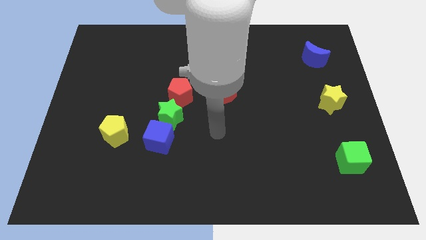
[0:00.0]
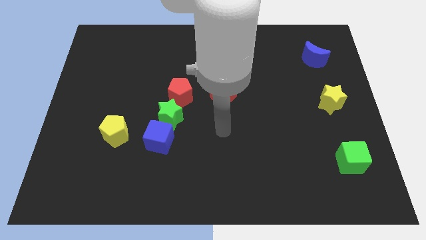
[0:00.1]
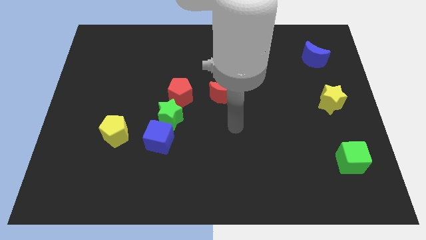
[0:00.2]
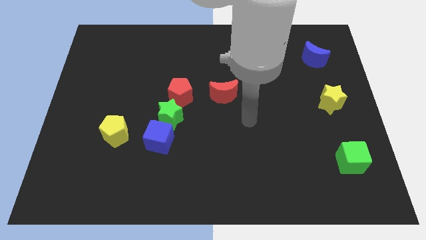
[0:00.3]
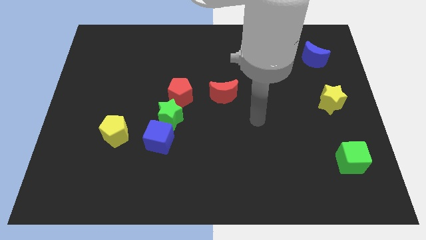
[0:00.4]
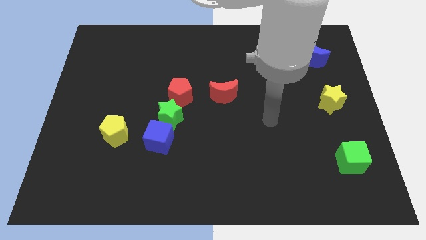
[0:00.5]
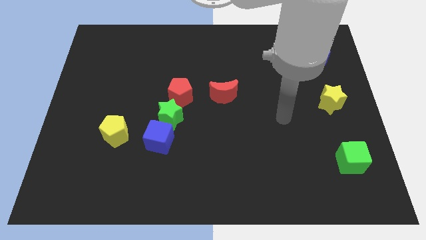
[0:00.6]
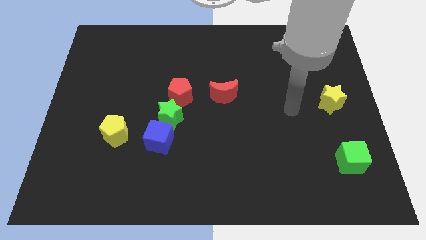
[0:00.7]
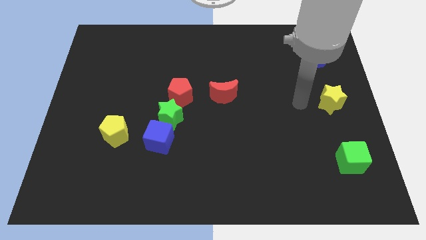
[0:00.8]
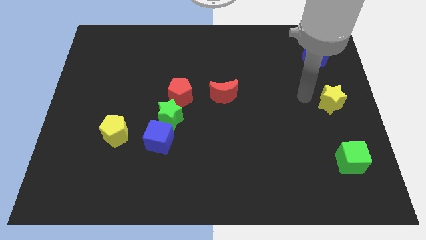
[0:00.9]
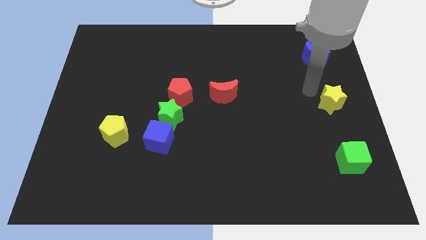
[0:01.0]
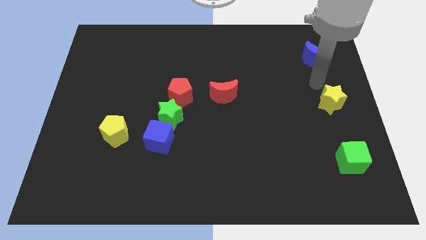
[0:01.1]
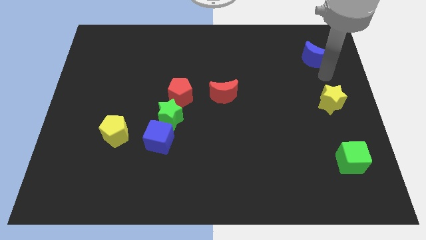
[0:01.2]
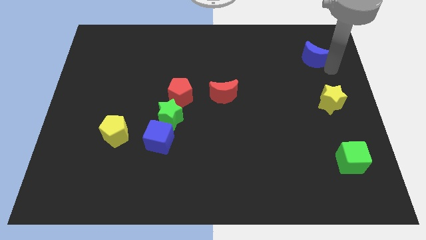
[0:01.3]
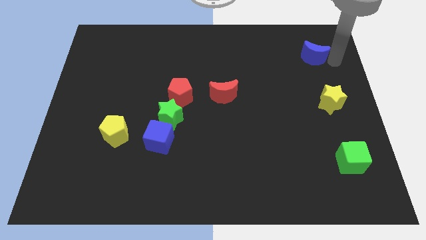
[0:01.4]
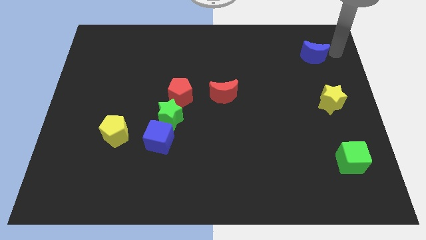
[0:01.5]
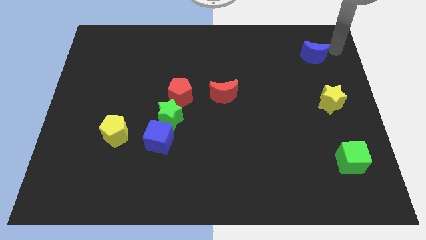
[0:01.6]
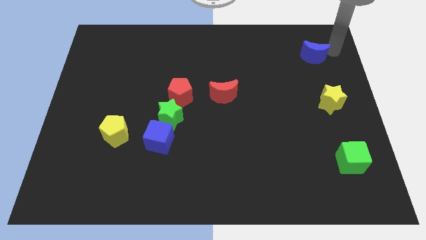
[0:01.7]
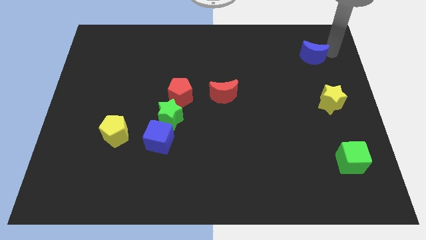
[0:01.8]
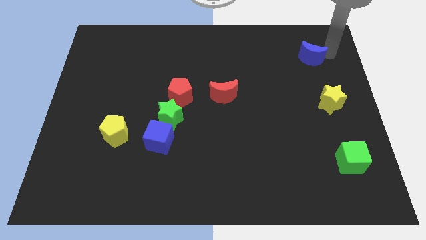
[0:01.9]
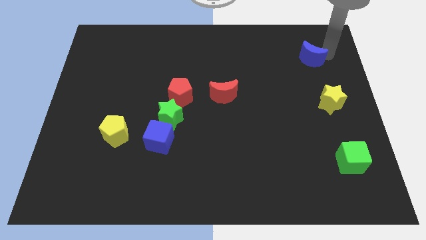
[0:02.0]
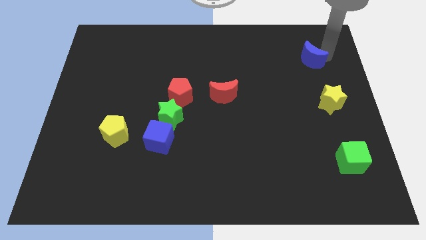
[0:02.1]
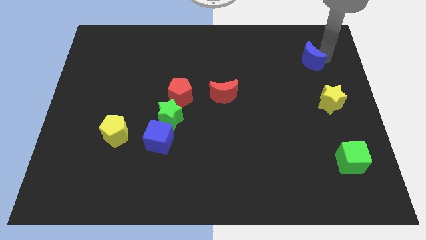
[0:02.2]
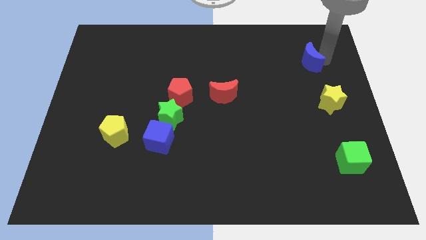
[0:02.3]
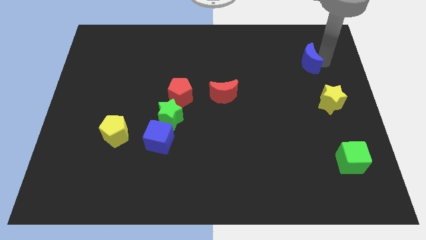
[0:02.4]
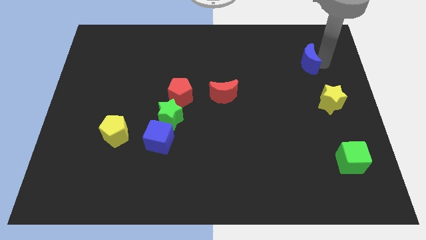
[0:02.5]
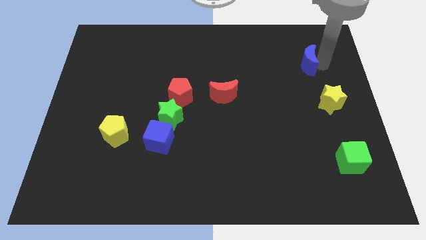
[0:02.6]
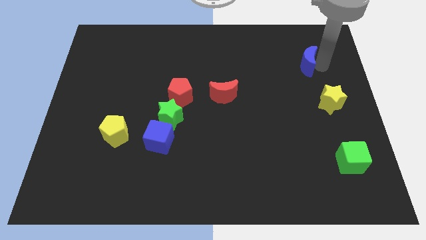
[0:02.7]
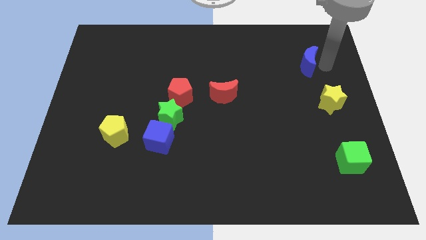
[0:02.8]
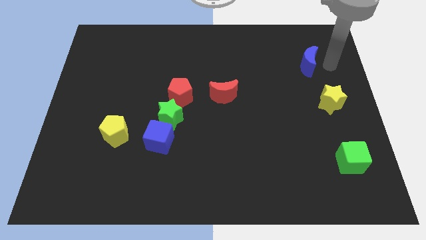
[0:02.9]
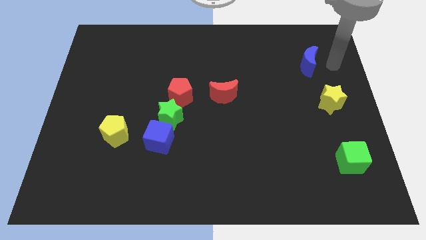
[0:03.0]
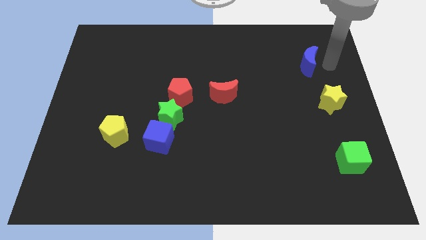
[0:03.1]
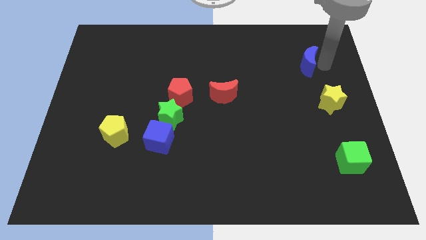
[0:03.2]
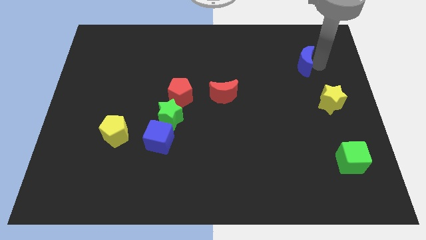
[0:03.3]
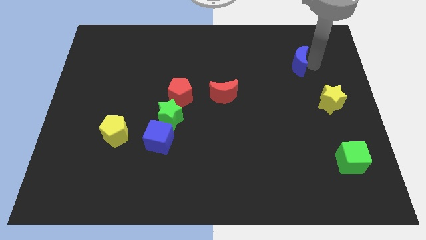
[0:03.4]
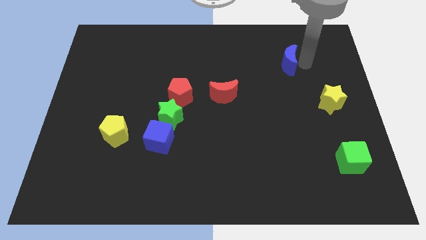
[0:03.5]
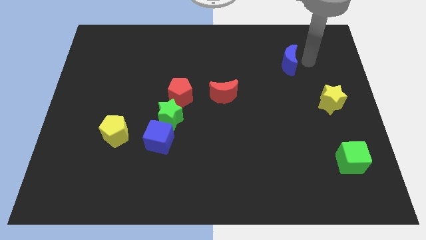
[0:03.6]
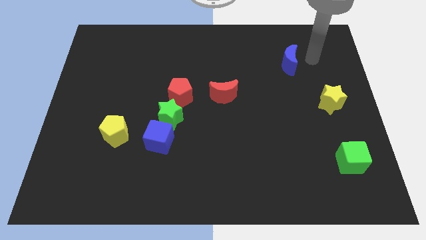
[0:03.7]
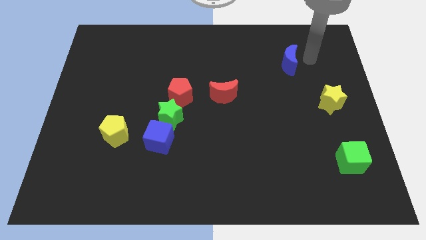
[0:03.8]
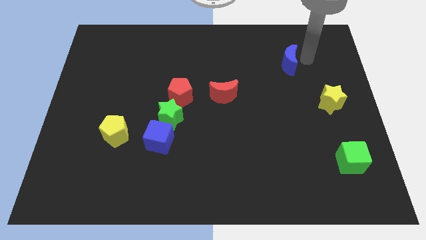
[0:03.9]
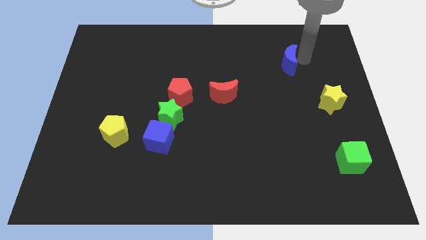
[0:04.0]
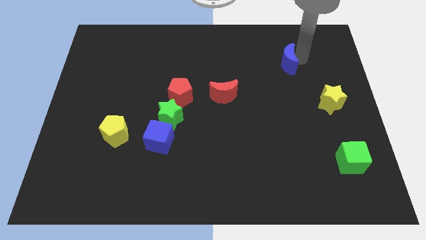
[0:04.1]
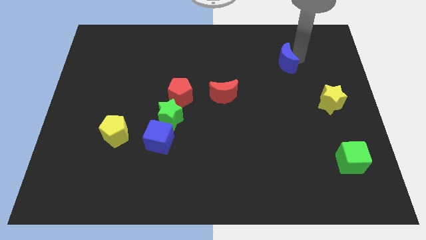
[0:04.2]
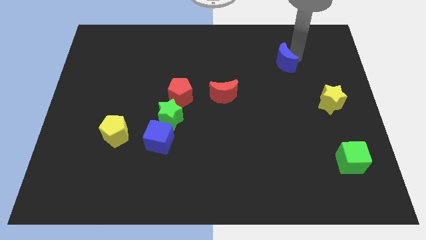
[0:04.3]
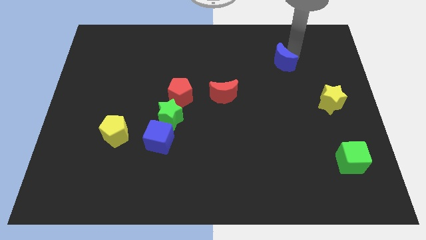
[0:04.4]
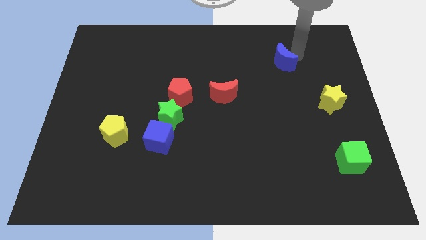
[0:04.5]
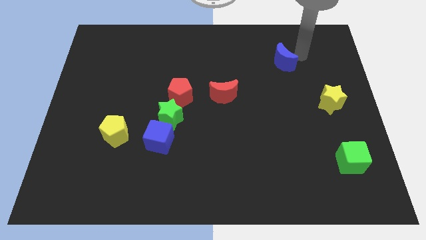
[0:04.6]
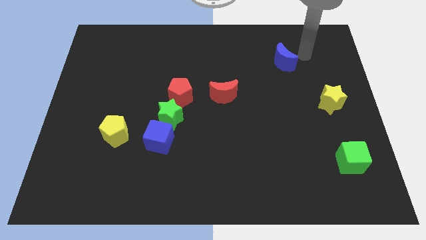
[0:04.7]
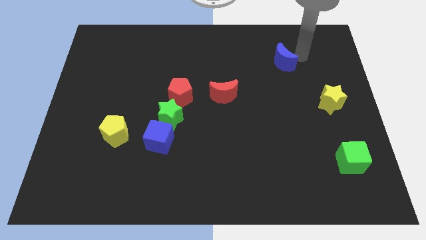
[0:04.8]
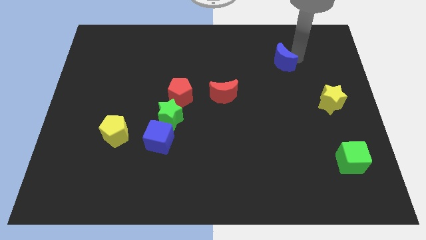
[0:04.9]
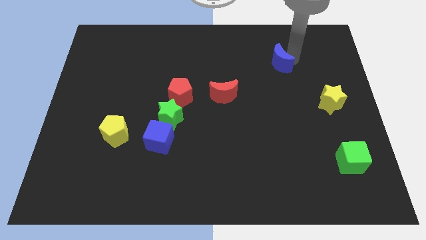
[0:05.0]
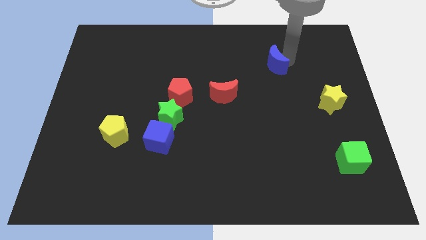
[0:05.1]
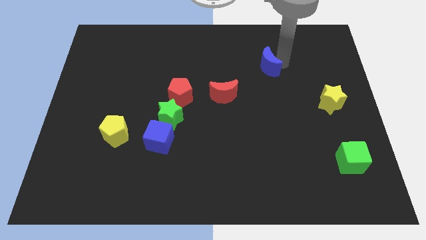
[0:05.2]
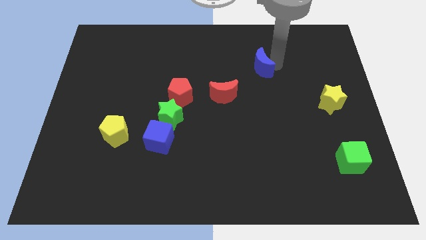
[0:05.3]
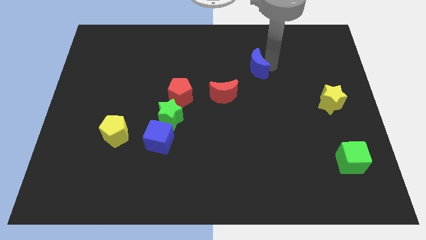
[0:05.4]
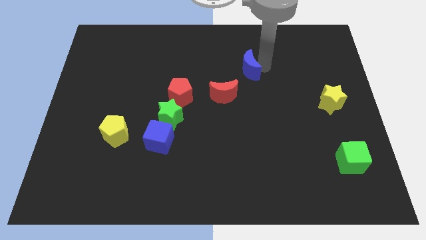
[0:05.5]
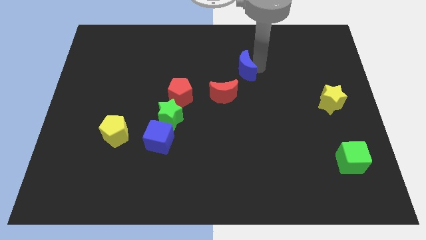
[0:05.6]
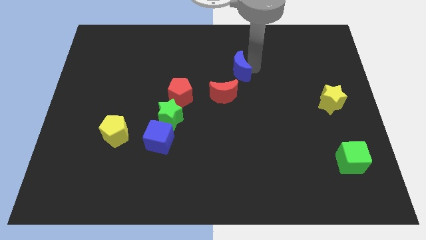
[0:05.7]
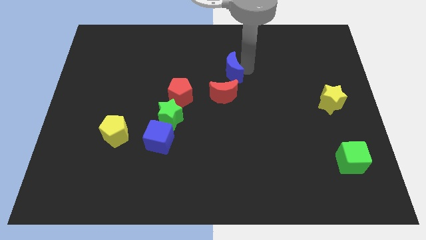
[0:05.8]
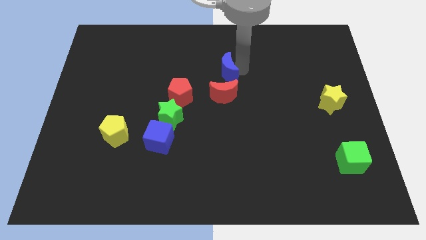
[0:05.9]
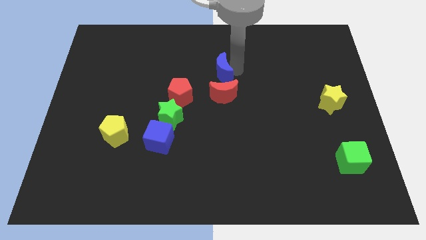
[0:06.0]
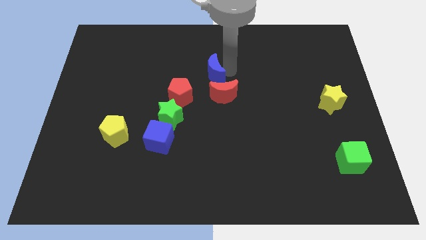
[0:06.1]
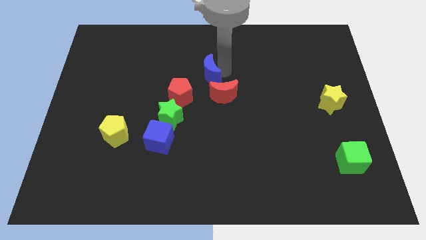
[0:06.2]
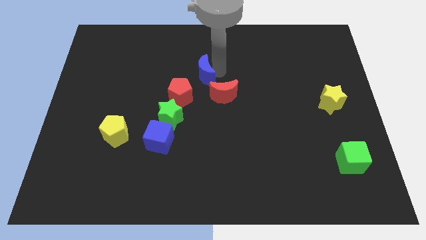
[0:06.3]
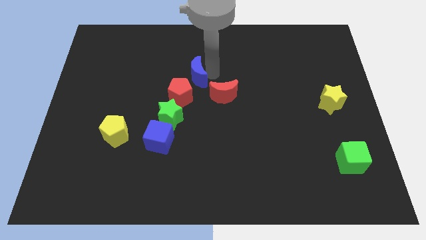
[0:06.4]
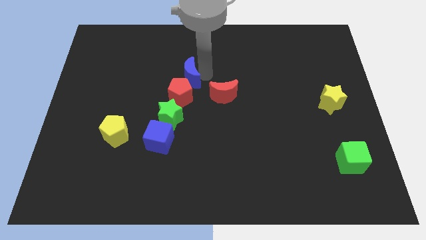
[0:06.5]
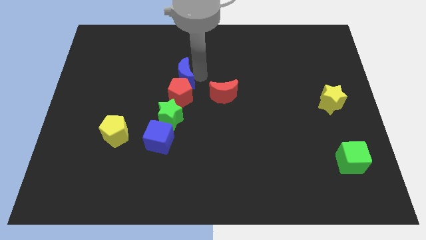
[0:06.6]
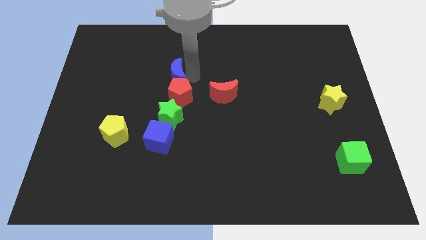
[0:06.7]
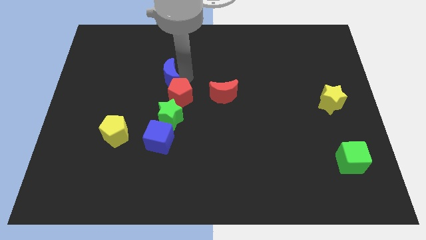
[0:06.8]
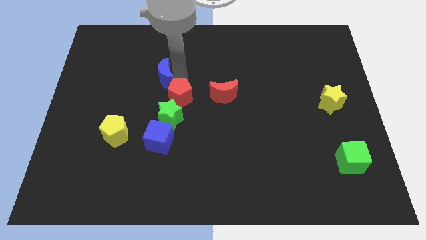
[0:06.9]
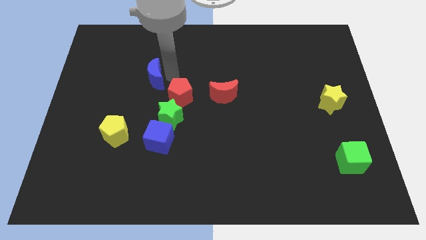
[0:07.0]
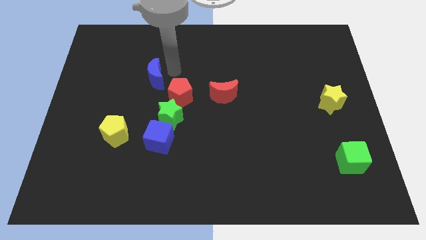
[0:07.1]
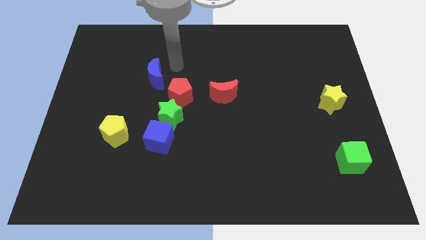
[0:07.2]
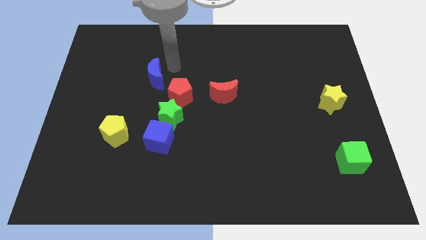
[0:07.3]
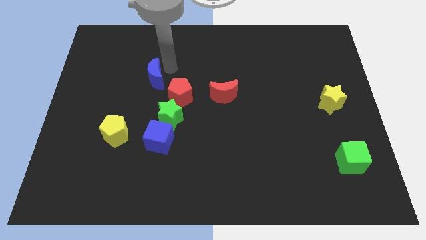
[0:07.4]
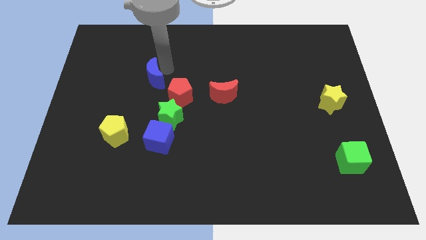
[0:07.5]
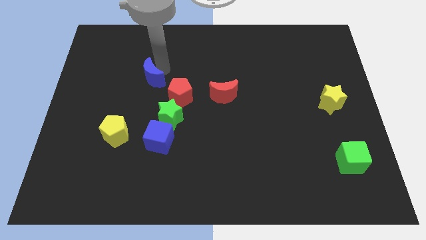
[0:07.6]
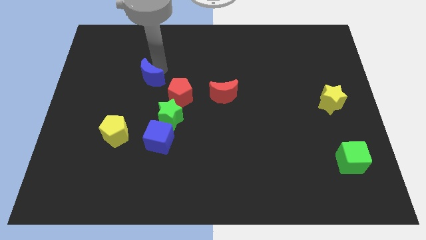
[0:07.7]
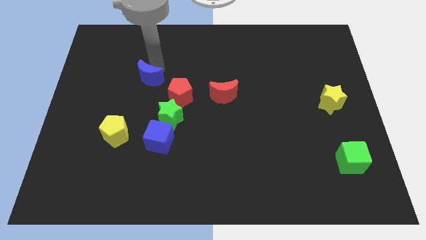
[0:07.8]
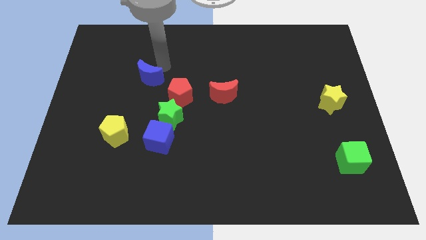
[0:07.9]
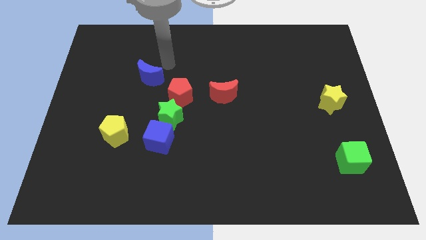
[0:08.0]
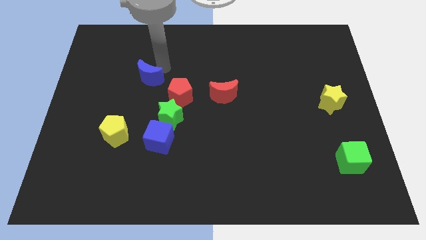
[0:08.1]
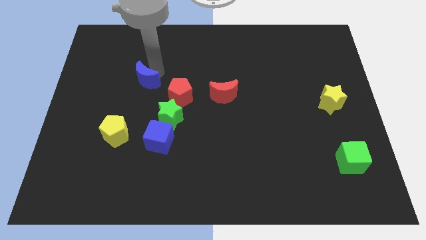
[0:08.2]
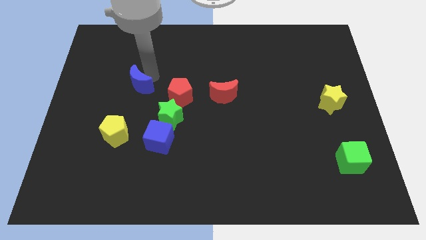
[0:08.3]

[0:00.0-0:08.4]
slide the blue moon to the top of the yellow pentagon
